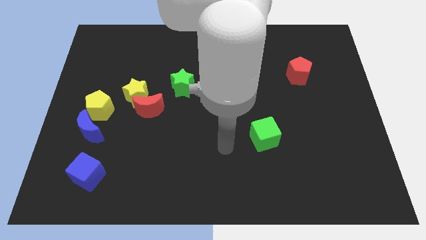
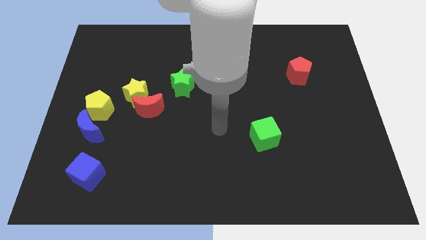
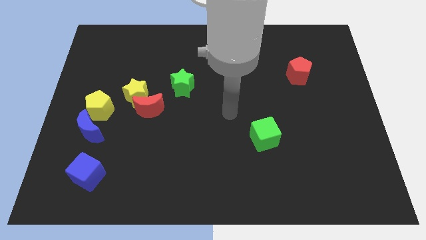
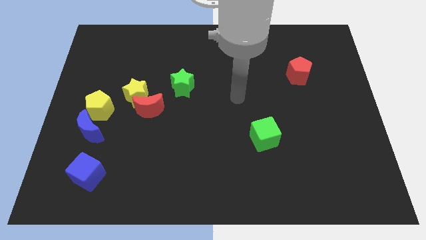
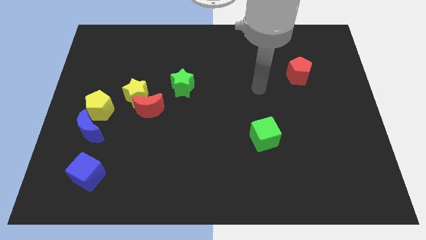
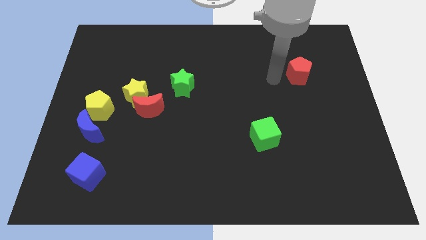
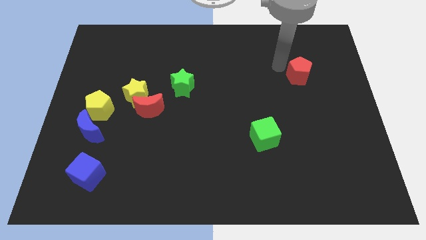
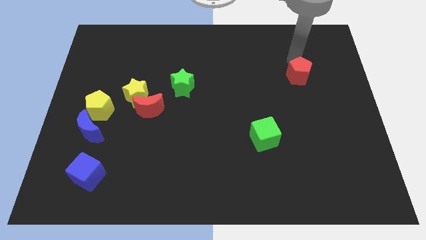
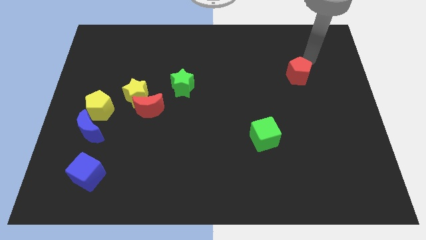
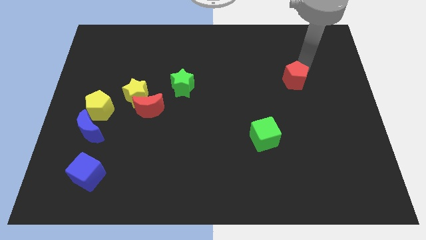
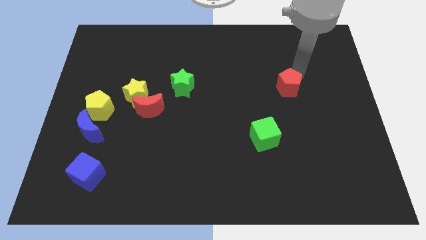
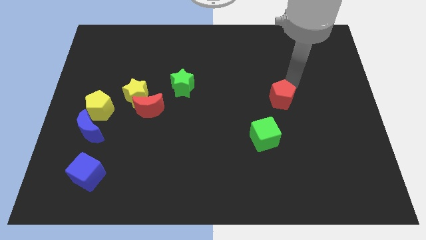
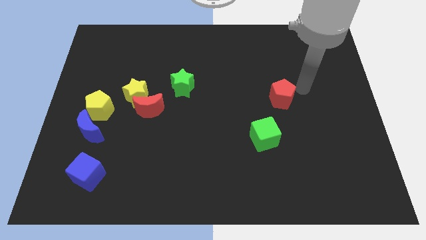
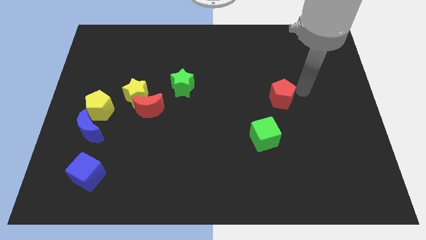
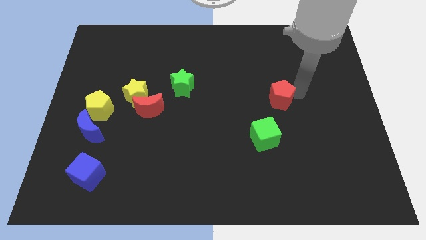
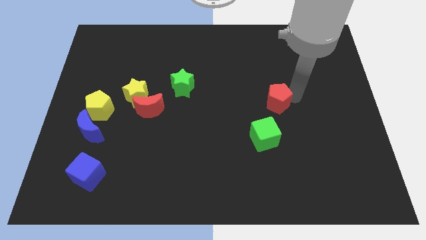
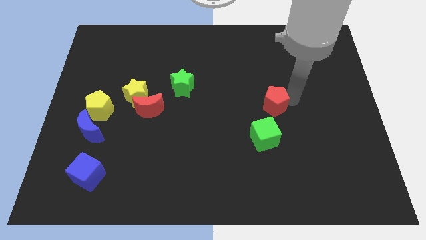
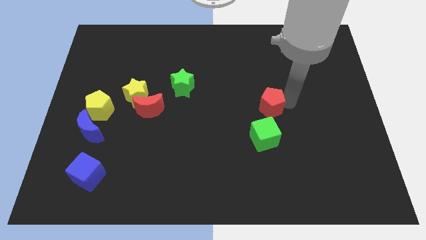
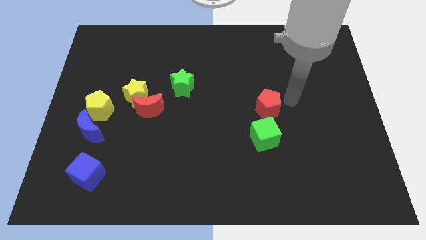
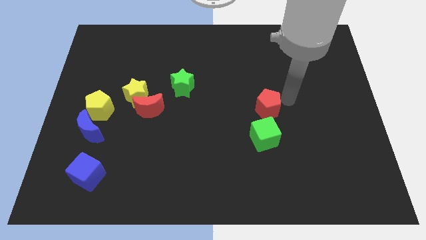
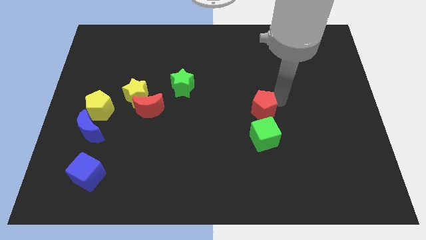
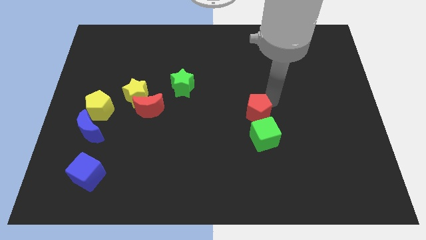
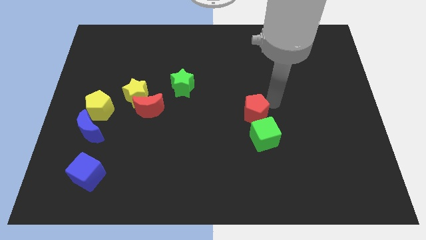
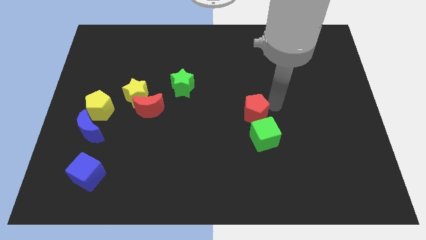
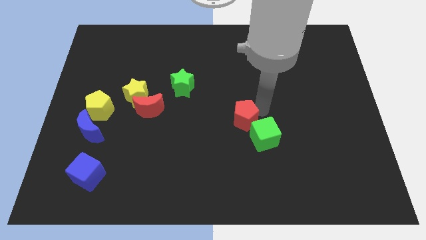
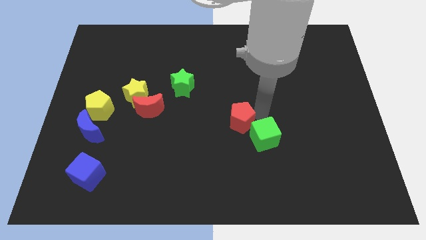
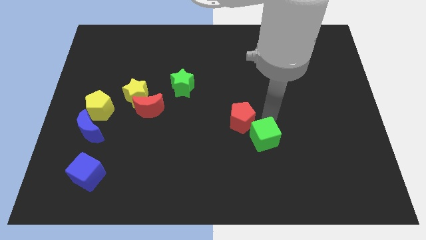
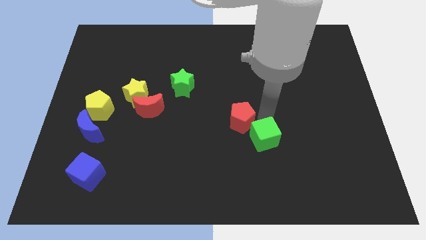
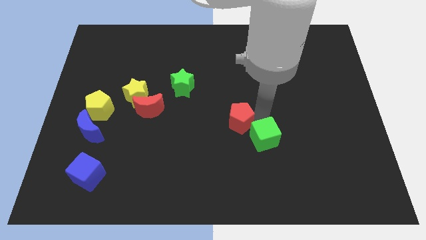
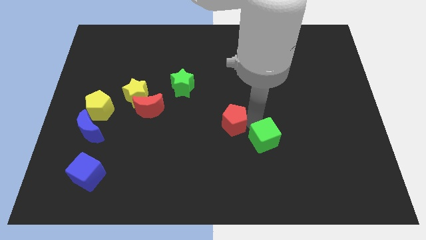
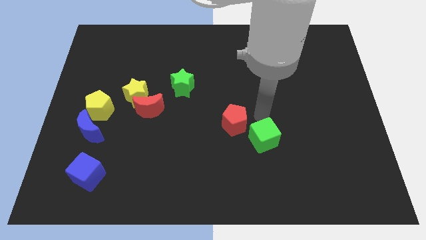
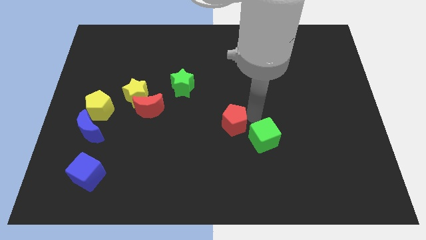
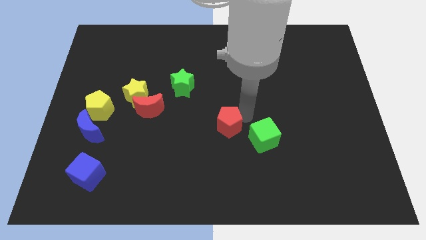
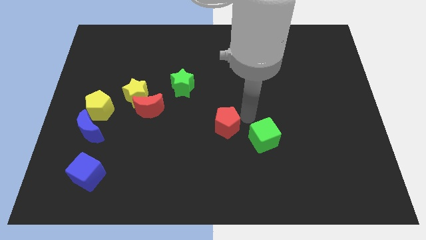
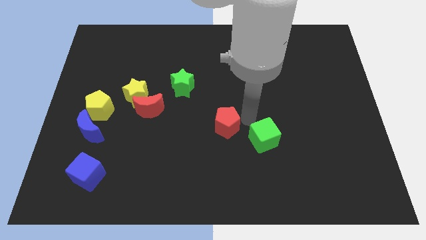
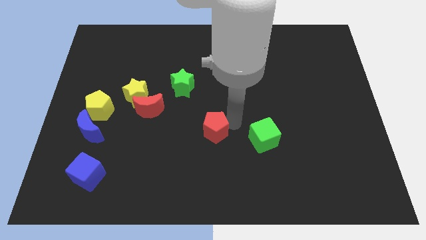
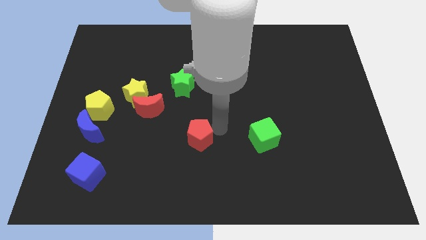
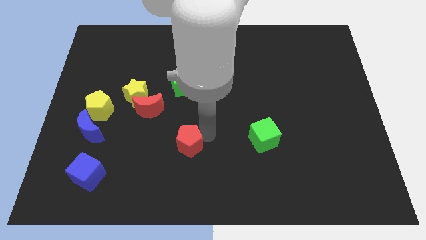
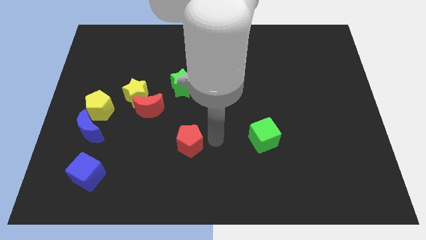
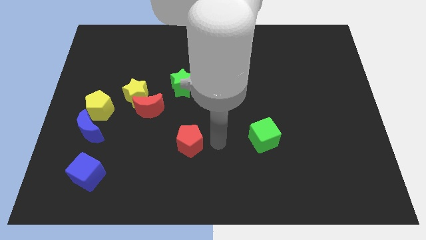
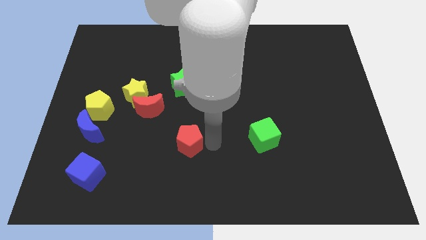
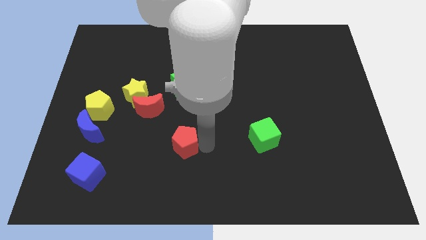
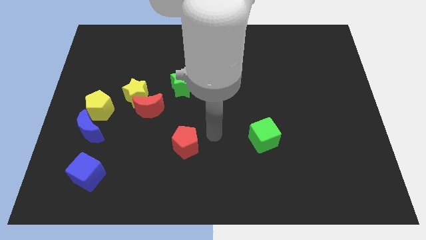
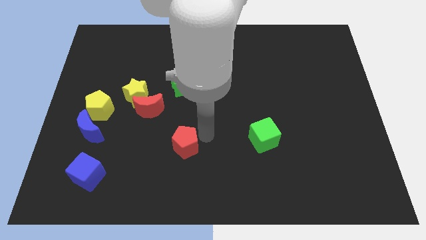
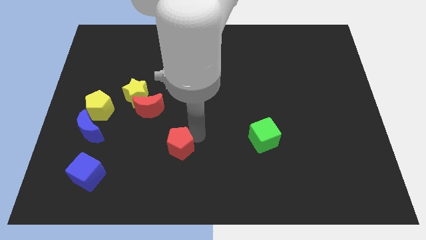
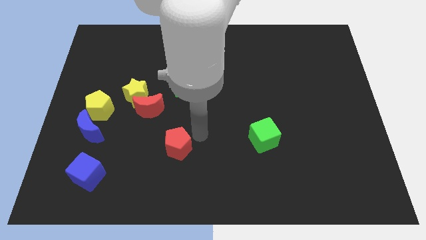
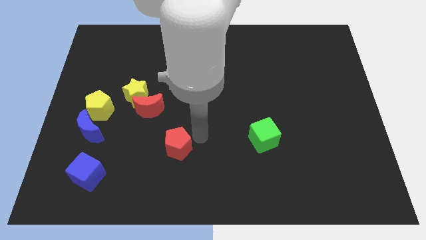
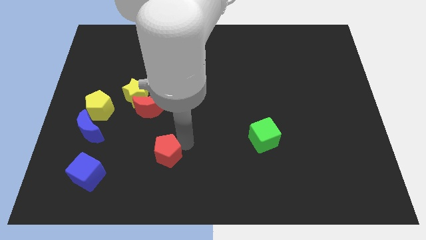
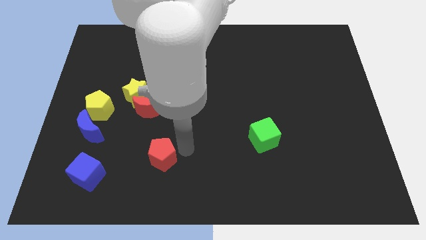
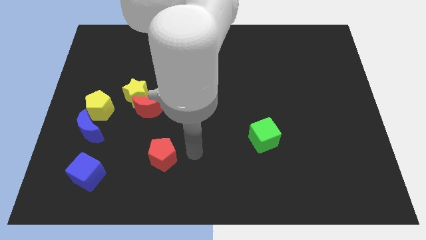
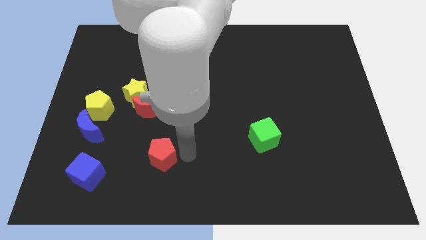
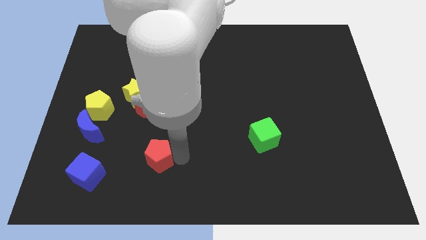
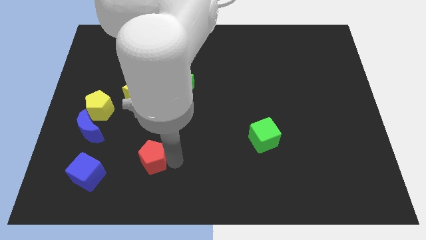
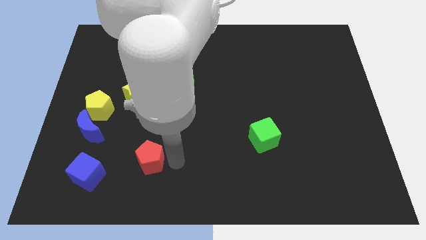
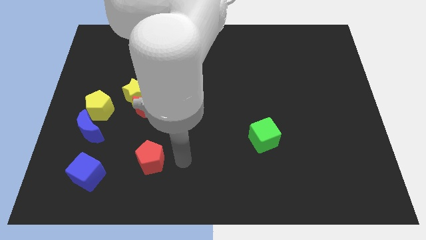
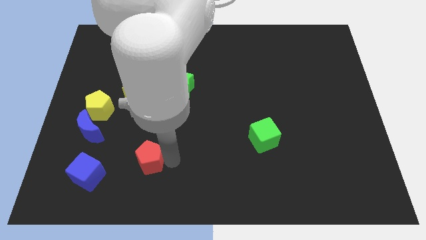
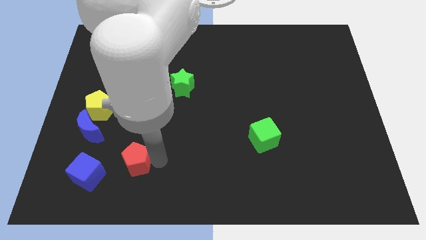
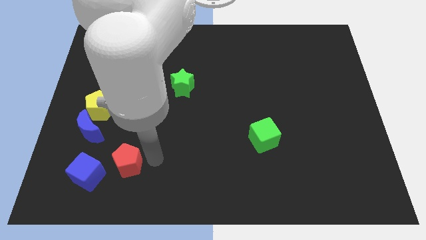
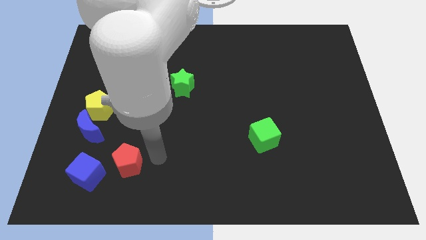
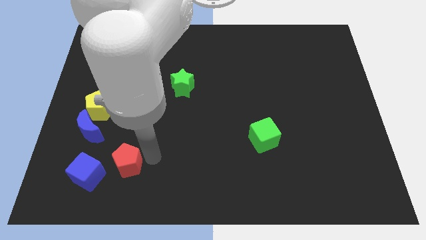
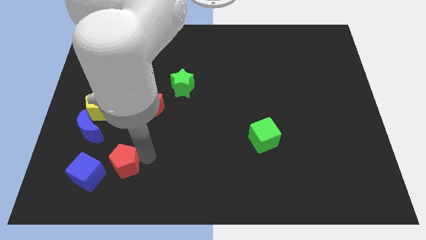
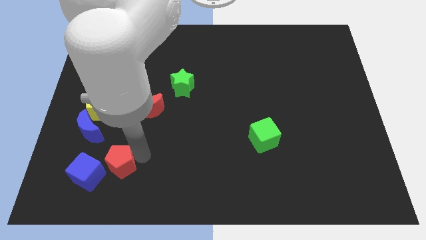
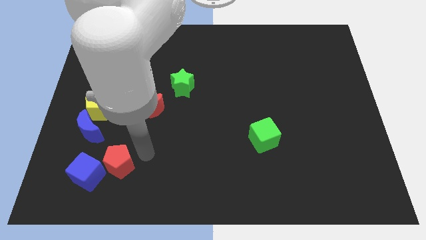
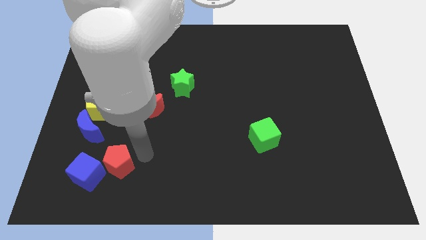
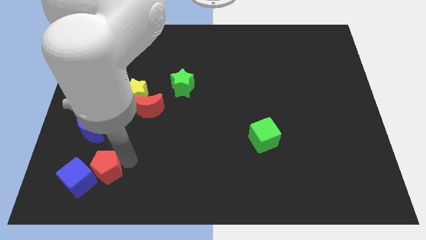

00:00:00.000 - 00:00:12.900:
push the red pentagon towards the blue cube

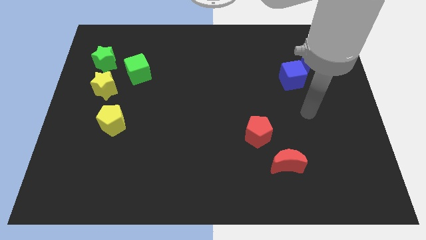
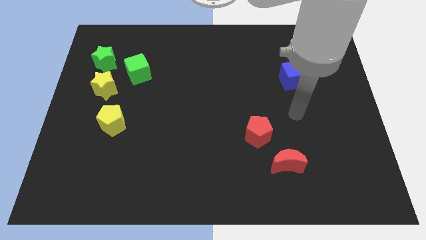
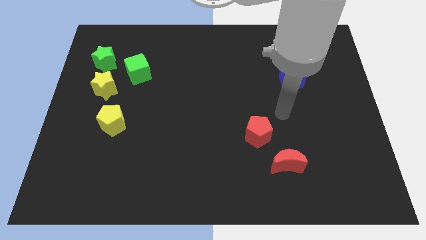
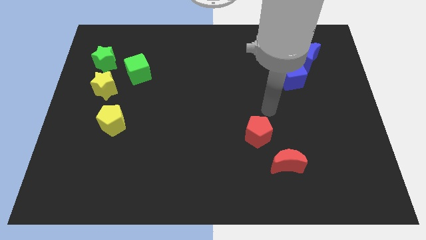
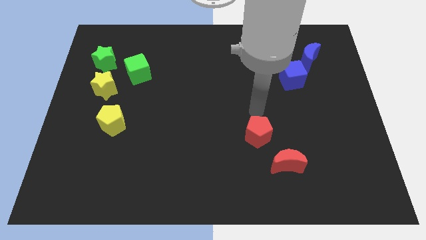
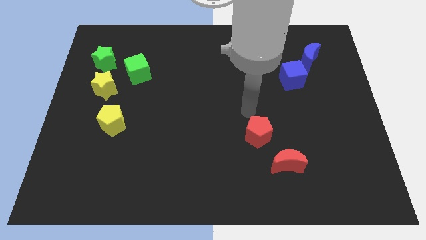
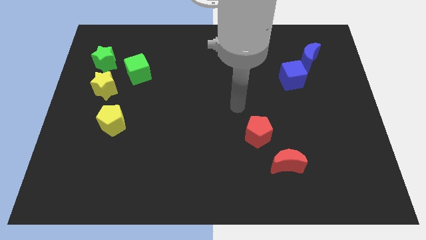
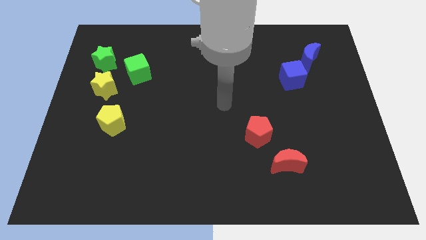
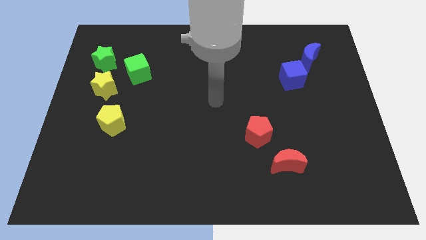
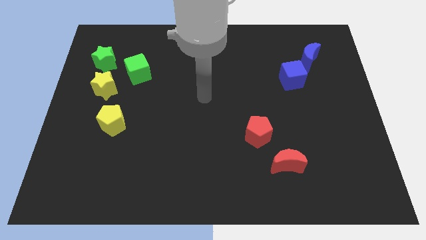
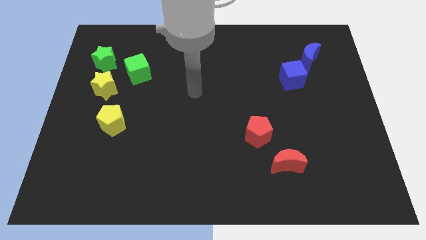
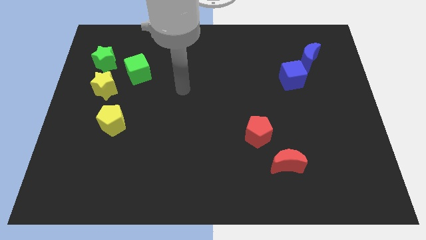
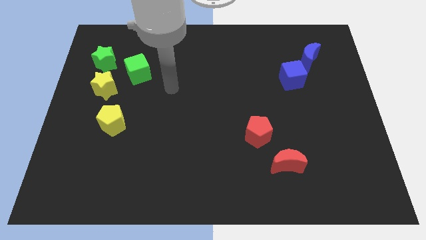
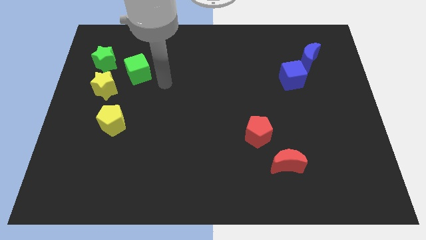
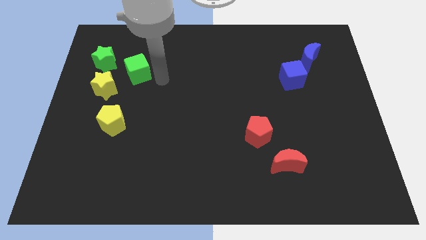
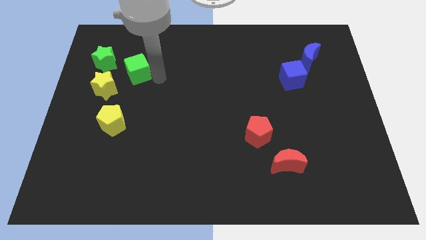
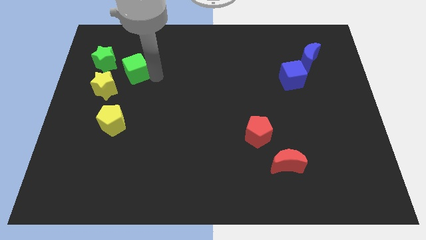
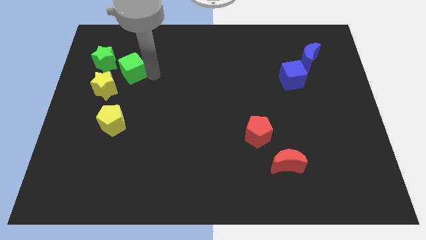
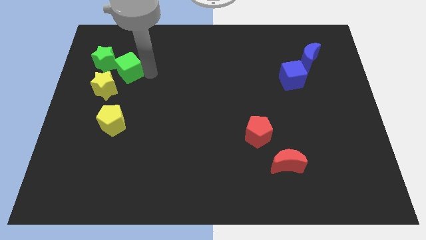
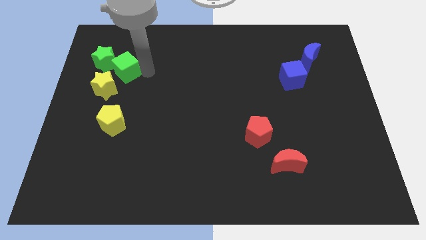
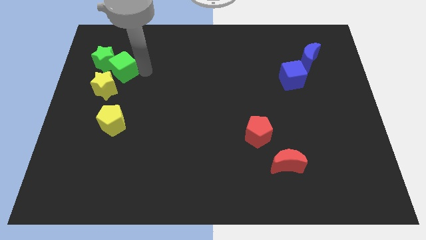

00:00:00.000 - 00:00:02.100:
put the green cube to the green star
